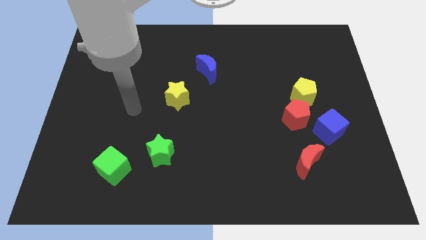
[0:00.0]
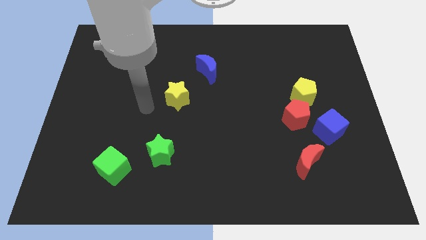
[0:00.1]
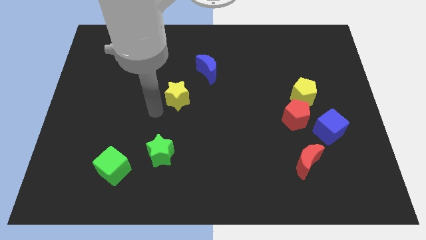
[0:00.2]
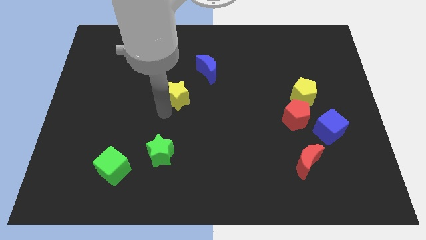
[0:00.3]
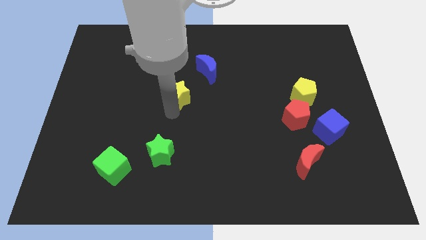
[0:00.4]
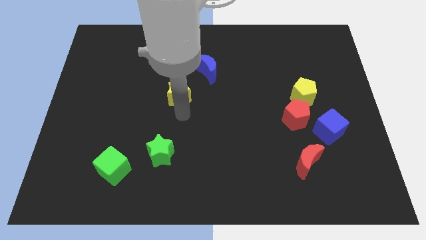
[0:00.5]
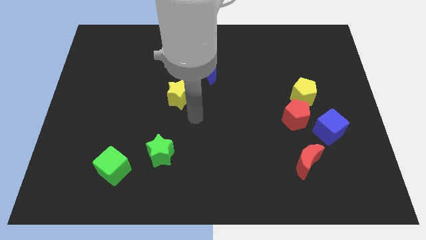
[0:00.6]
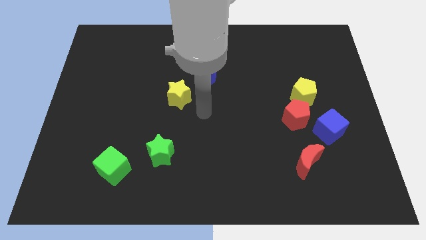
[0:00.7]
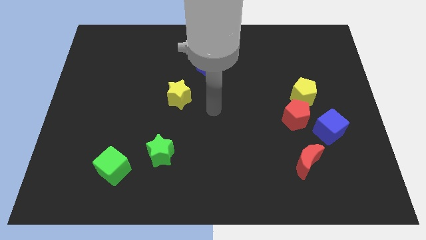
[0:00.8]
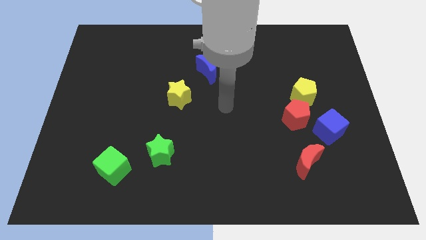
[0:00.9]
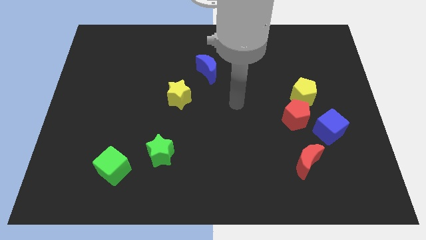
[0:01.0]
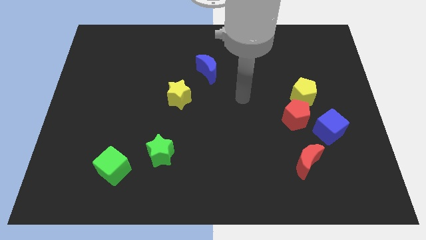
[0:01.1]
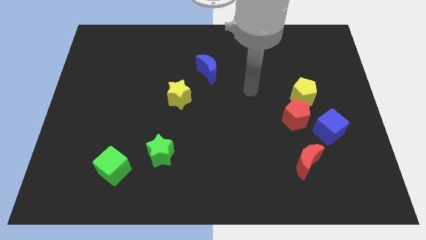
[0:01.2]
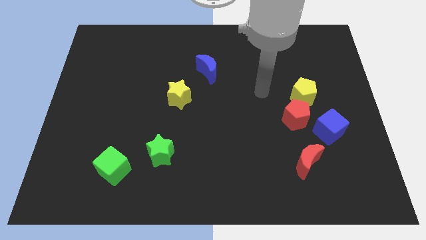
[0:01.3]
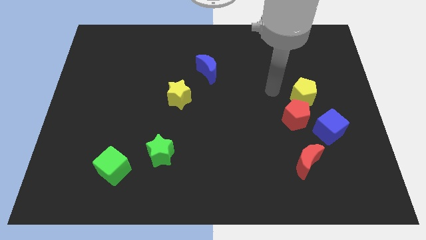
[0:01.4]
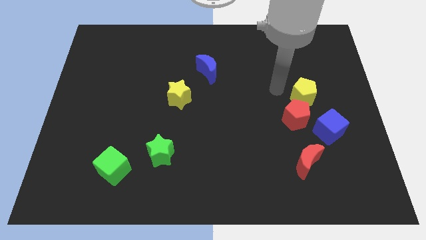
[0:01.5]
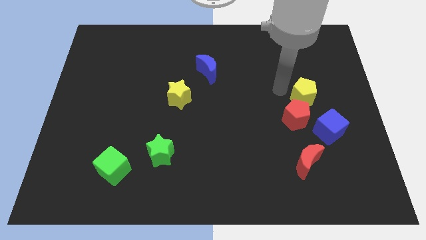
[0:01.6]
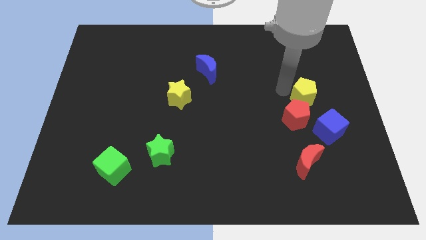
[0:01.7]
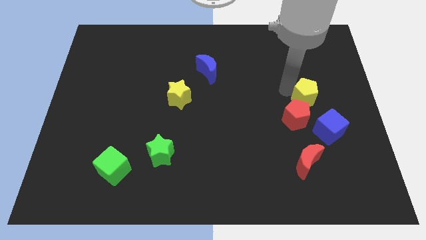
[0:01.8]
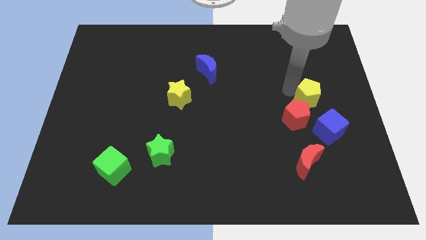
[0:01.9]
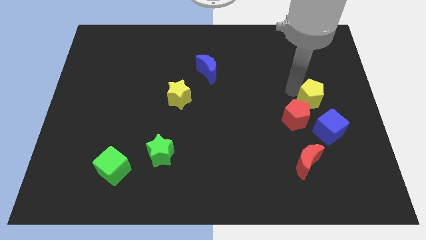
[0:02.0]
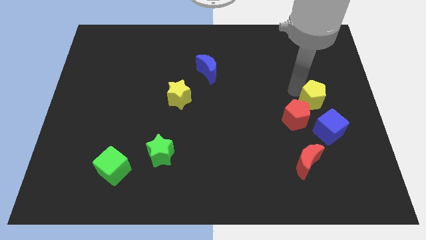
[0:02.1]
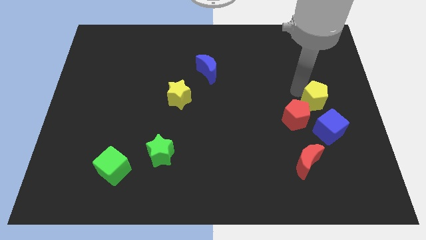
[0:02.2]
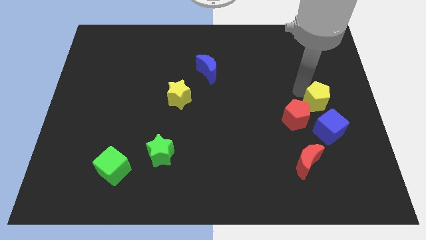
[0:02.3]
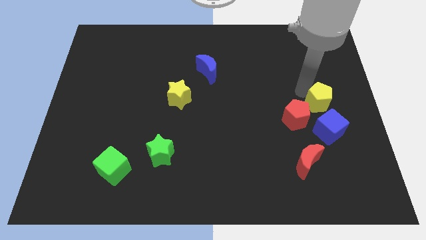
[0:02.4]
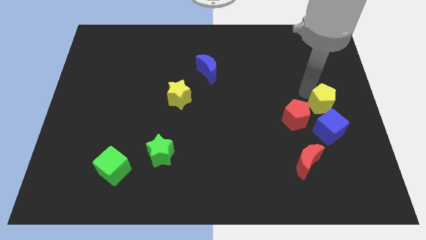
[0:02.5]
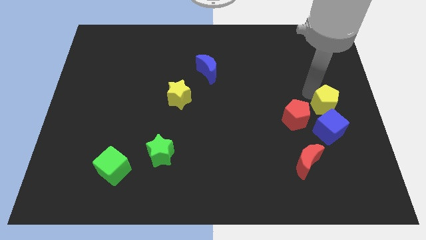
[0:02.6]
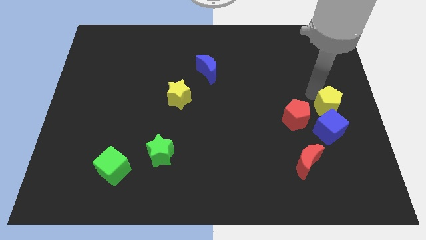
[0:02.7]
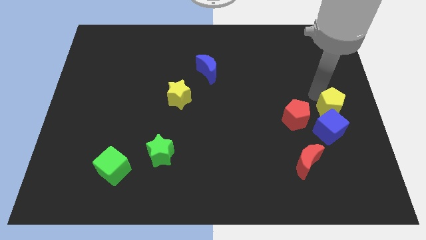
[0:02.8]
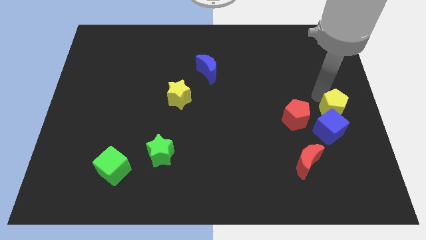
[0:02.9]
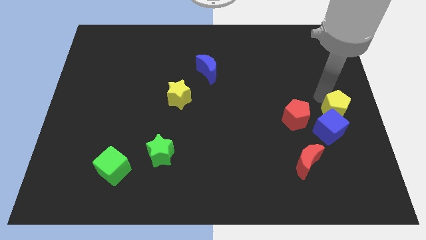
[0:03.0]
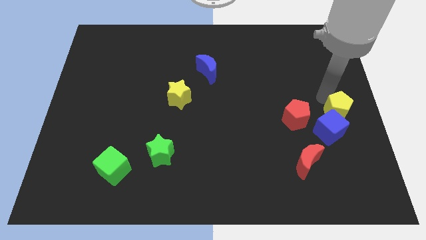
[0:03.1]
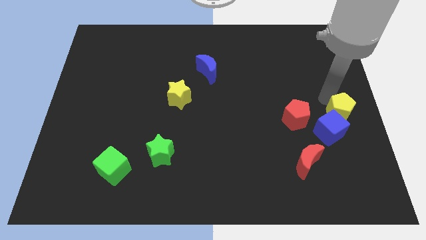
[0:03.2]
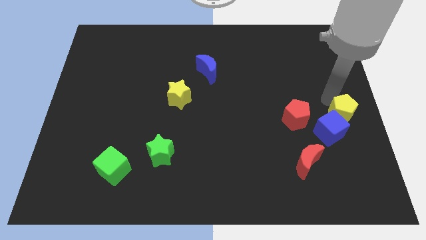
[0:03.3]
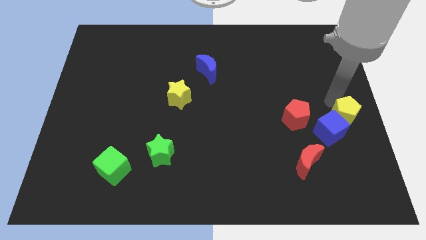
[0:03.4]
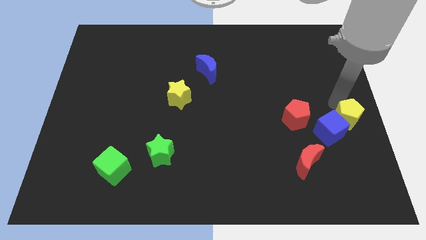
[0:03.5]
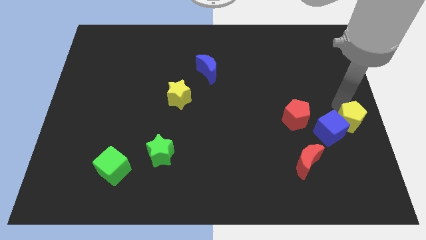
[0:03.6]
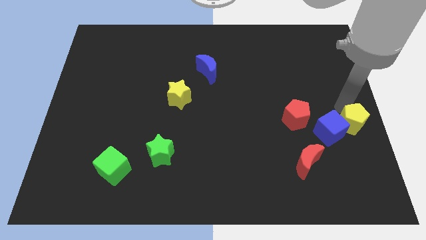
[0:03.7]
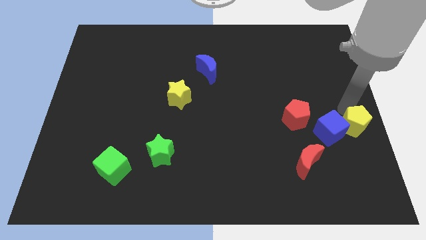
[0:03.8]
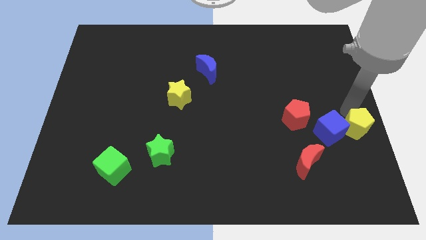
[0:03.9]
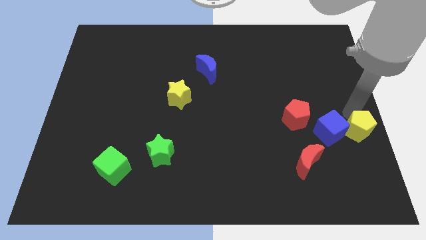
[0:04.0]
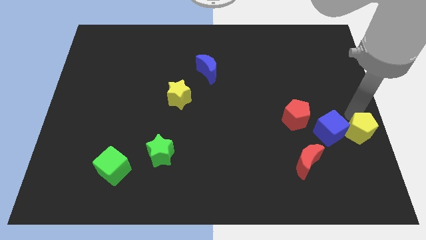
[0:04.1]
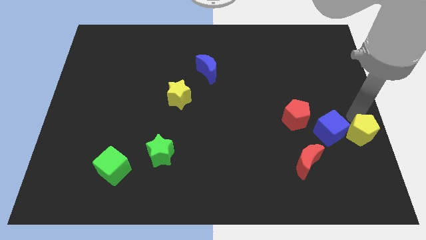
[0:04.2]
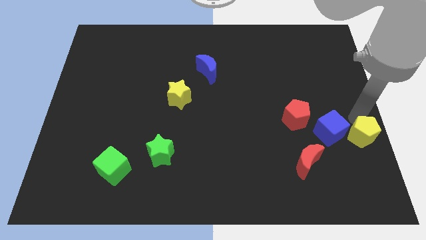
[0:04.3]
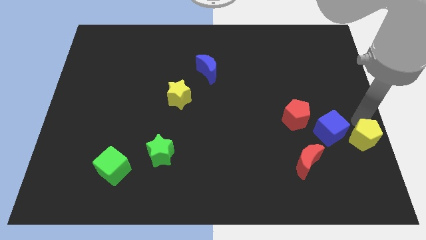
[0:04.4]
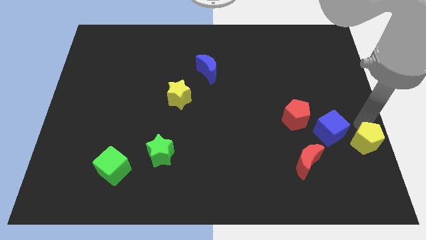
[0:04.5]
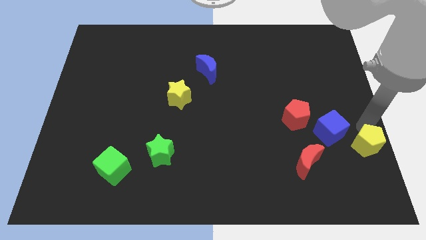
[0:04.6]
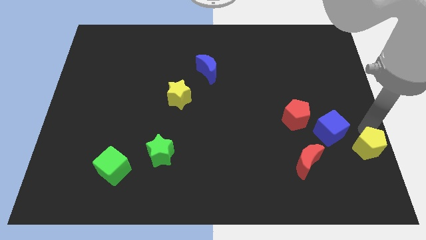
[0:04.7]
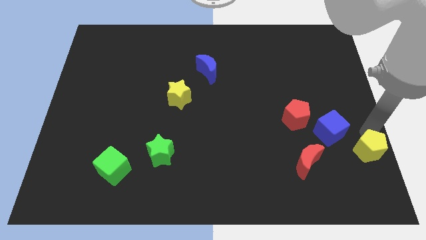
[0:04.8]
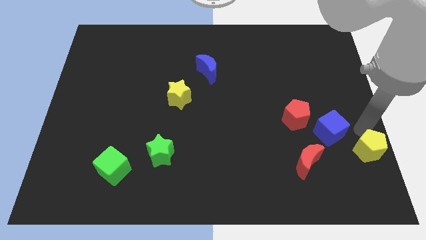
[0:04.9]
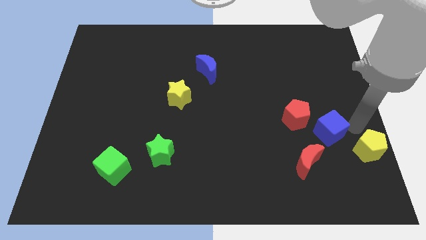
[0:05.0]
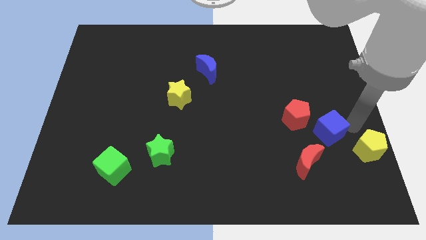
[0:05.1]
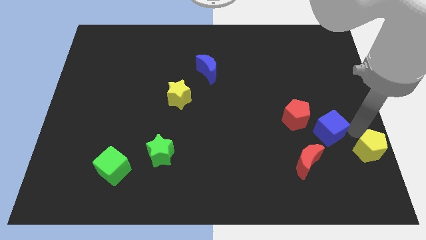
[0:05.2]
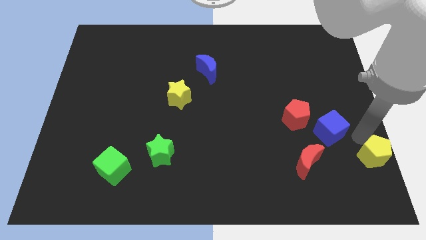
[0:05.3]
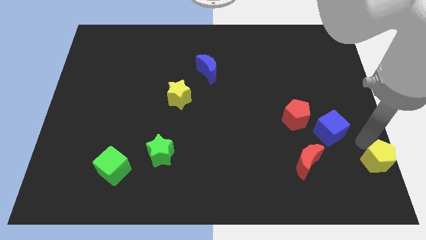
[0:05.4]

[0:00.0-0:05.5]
put the yellow pentagon to the lower right corner
